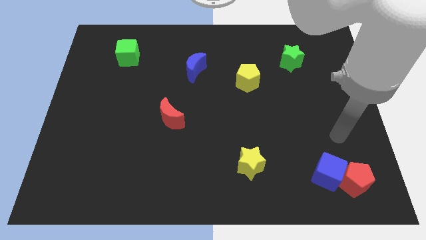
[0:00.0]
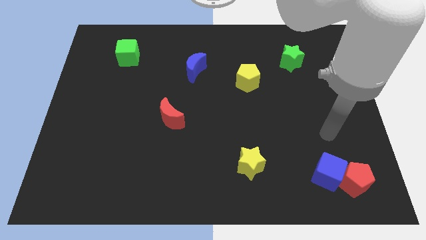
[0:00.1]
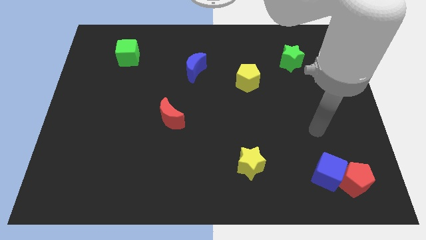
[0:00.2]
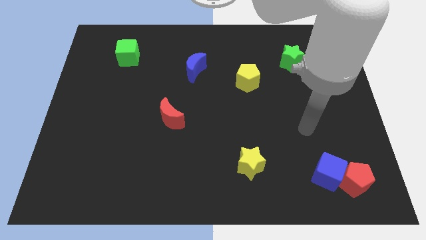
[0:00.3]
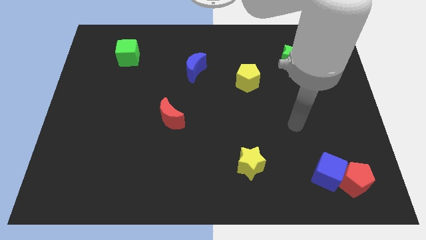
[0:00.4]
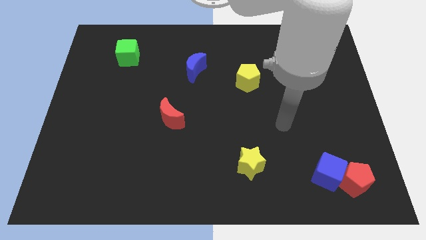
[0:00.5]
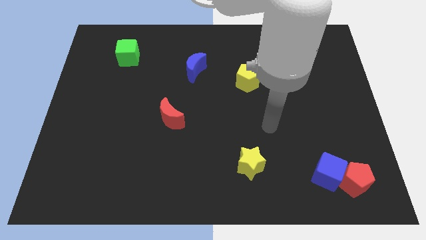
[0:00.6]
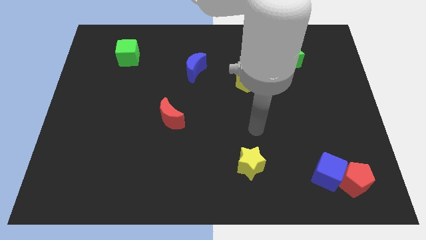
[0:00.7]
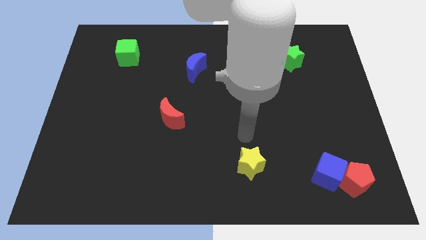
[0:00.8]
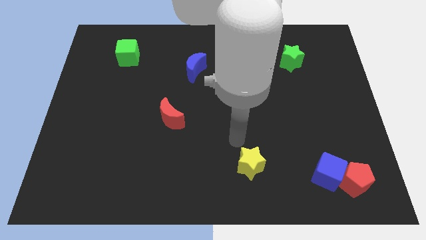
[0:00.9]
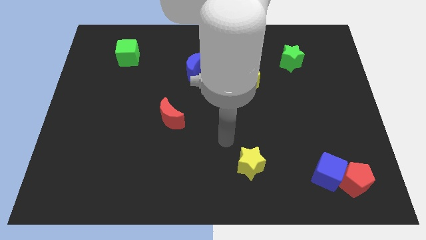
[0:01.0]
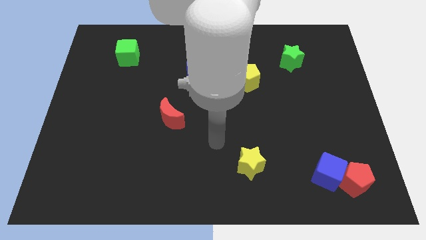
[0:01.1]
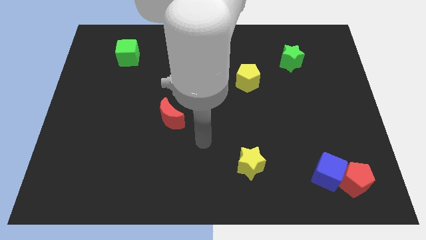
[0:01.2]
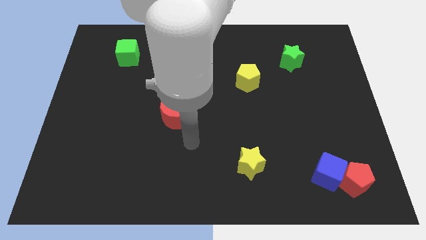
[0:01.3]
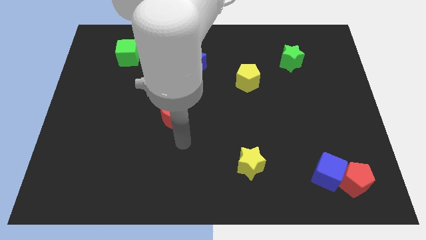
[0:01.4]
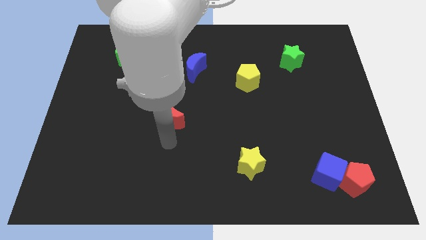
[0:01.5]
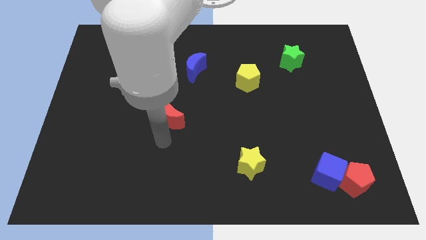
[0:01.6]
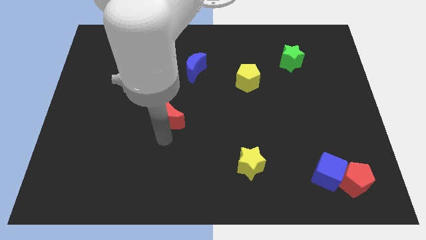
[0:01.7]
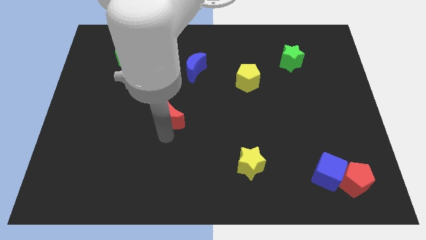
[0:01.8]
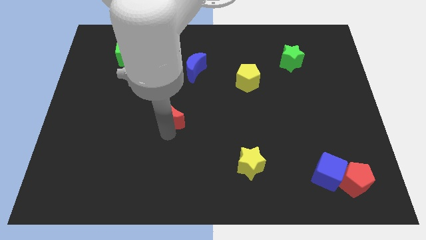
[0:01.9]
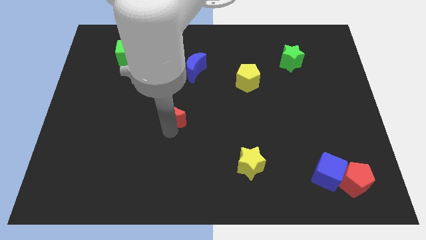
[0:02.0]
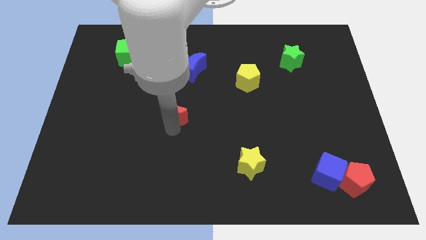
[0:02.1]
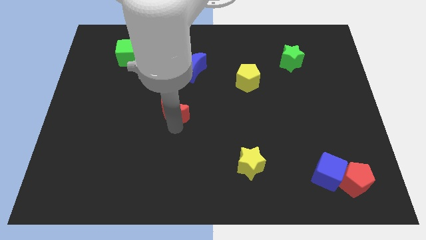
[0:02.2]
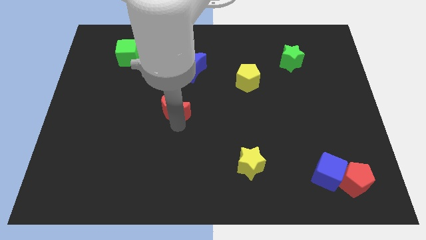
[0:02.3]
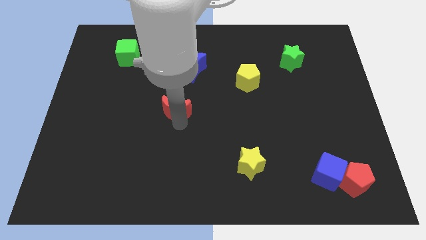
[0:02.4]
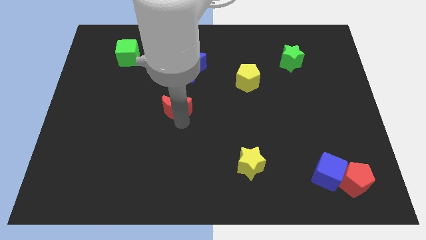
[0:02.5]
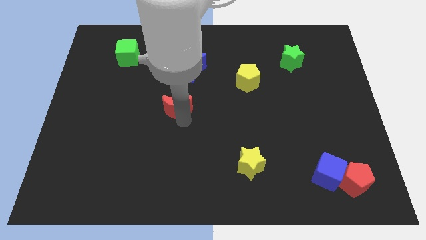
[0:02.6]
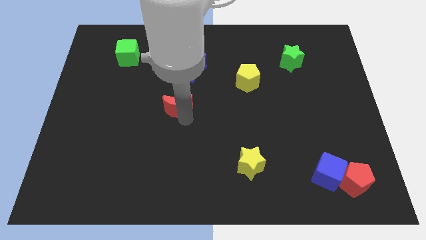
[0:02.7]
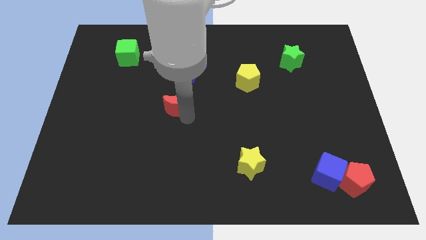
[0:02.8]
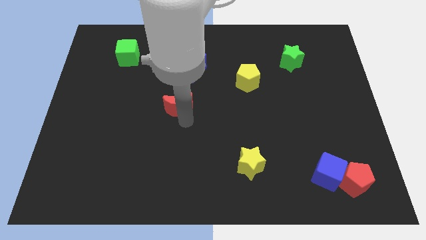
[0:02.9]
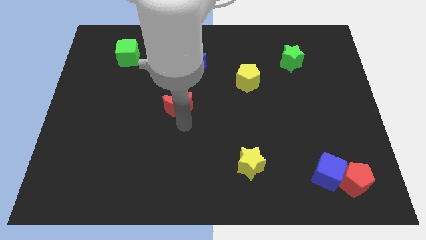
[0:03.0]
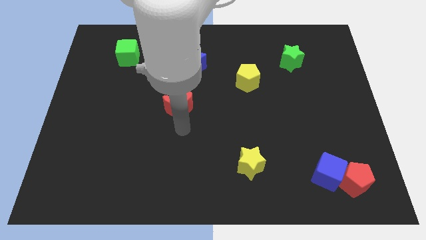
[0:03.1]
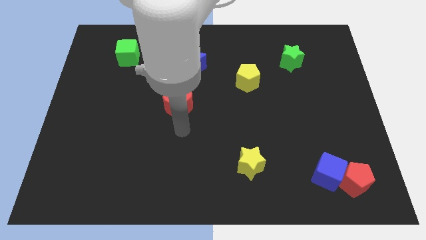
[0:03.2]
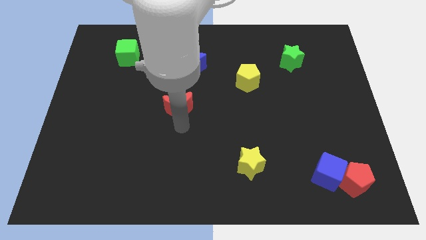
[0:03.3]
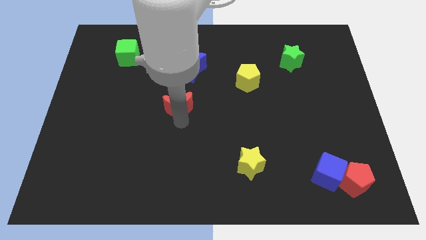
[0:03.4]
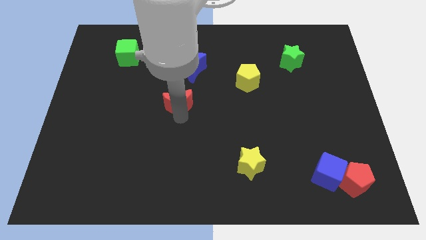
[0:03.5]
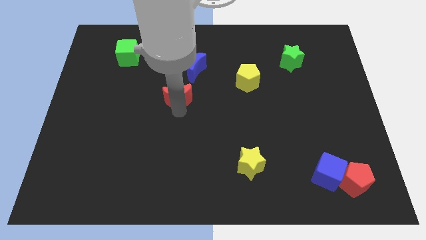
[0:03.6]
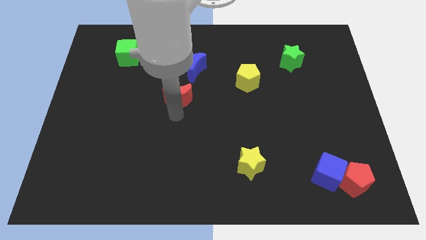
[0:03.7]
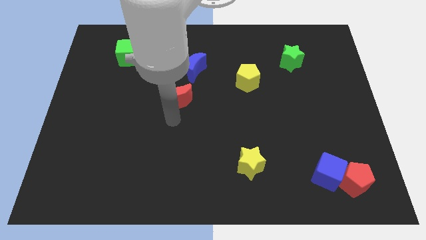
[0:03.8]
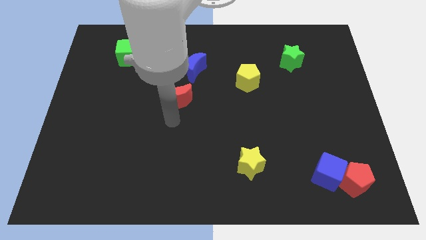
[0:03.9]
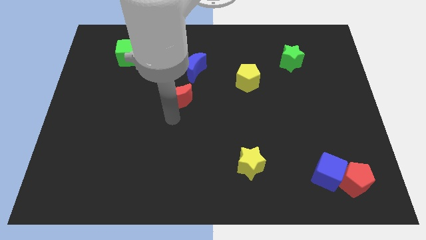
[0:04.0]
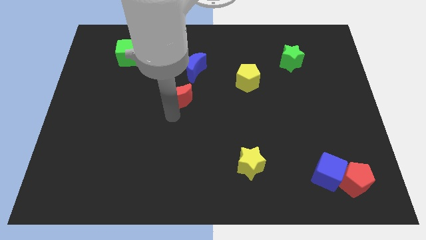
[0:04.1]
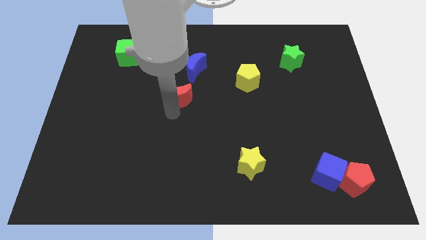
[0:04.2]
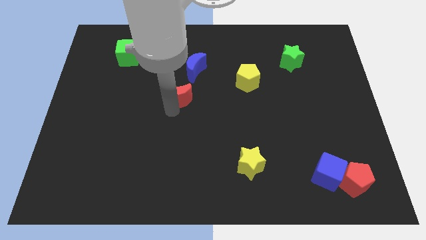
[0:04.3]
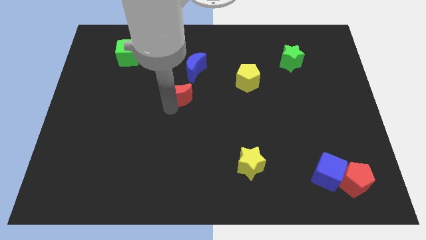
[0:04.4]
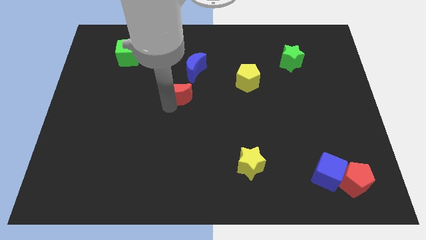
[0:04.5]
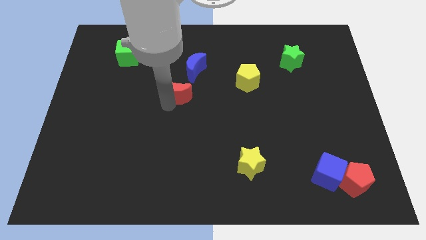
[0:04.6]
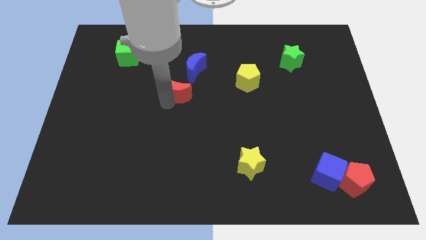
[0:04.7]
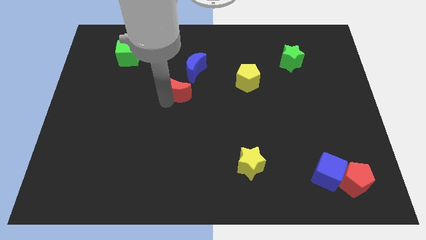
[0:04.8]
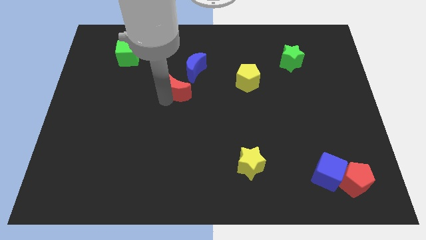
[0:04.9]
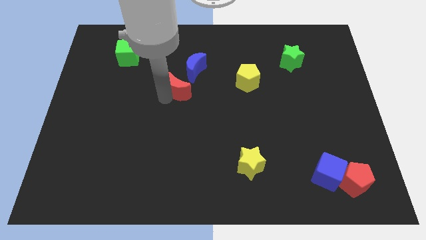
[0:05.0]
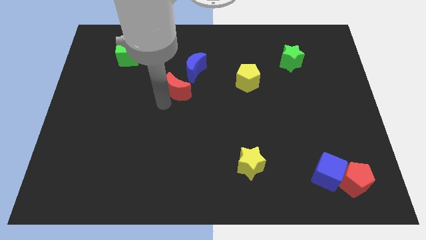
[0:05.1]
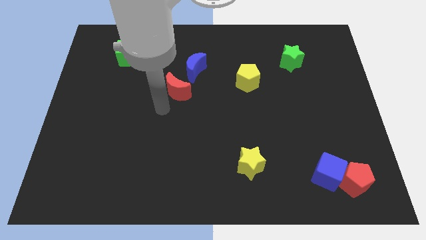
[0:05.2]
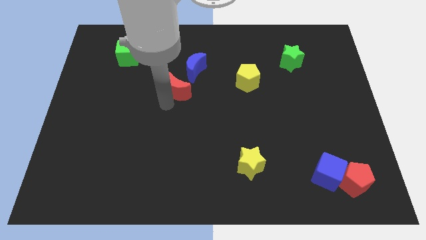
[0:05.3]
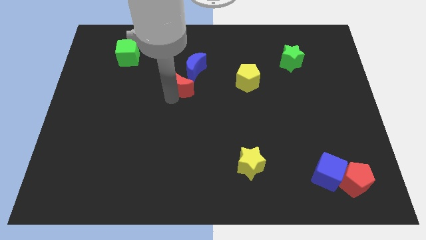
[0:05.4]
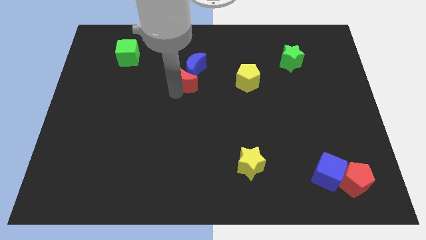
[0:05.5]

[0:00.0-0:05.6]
put the red moon to the blue moon

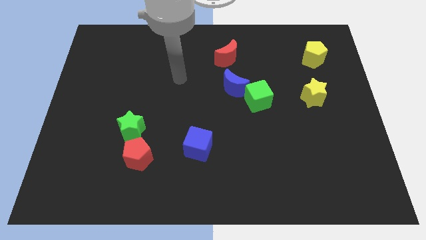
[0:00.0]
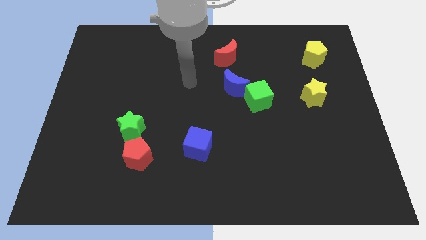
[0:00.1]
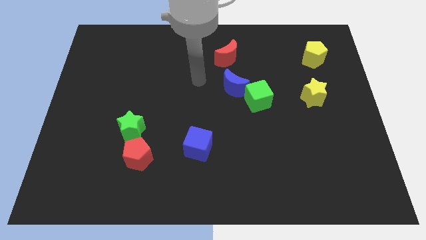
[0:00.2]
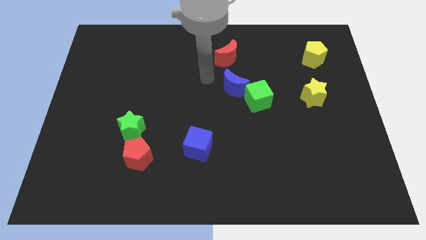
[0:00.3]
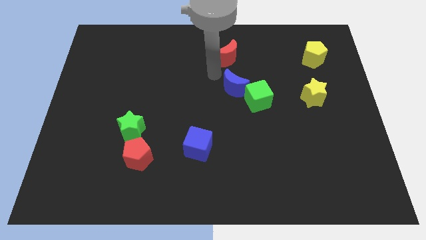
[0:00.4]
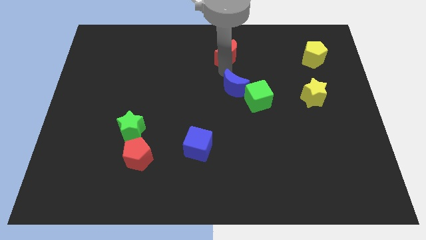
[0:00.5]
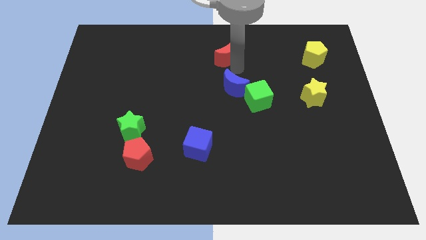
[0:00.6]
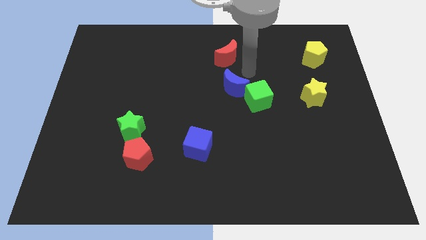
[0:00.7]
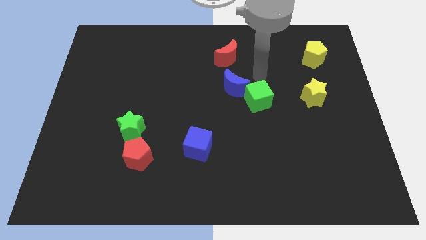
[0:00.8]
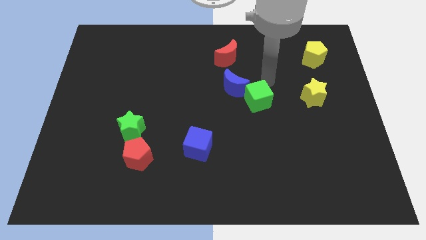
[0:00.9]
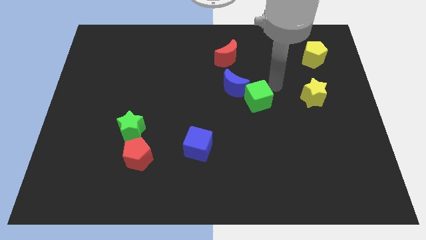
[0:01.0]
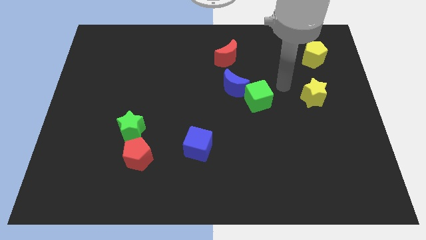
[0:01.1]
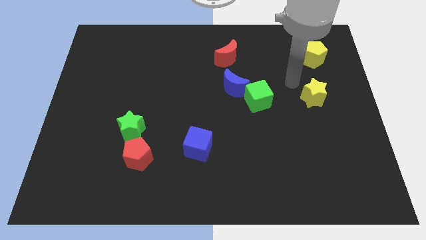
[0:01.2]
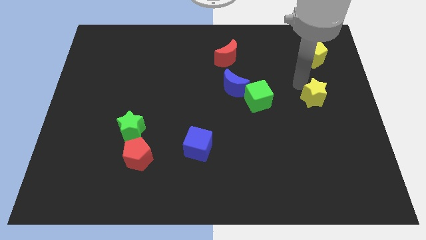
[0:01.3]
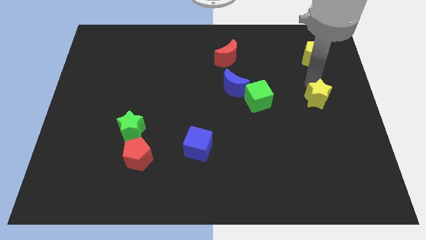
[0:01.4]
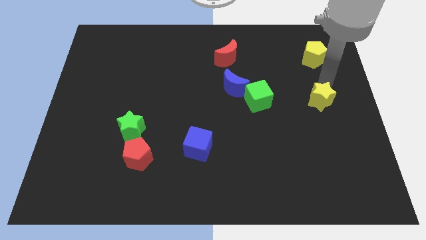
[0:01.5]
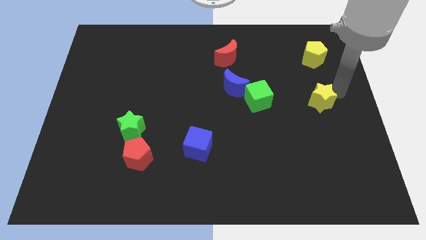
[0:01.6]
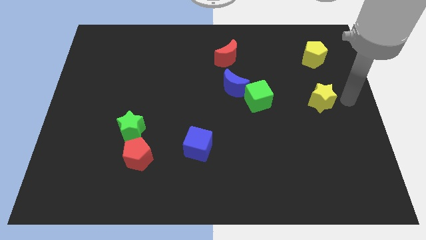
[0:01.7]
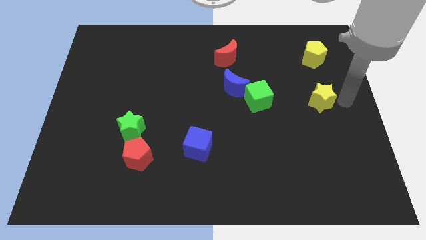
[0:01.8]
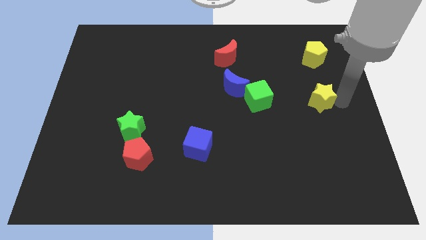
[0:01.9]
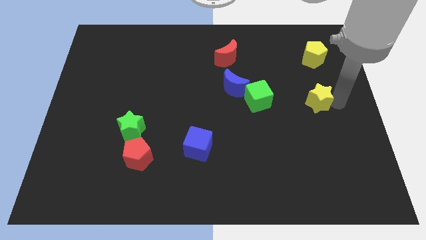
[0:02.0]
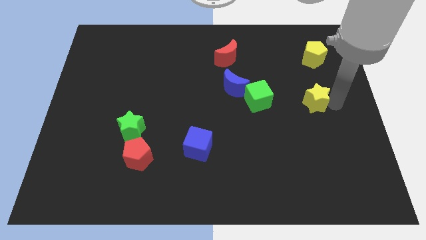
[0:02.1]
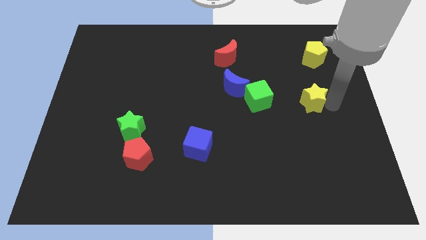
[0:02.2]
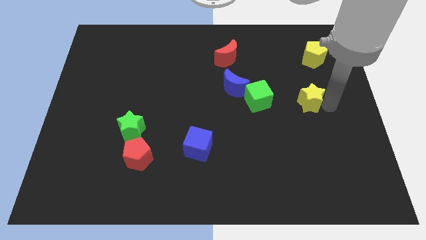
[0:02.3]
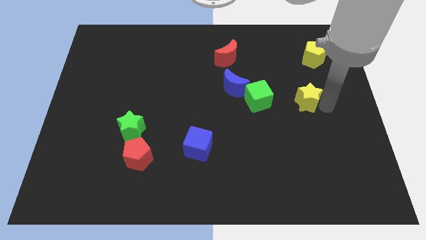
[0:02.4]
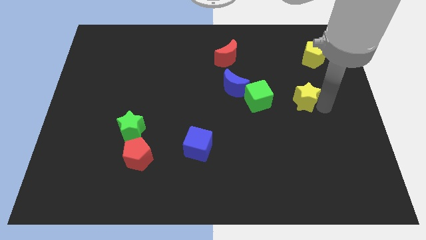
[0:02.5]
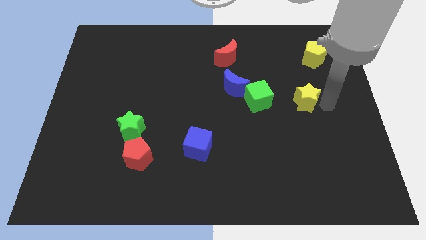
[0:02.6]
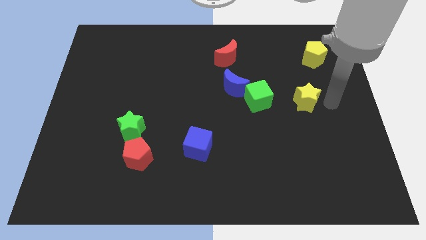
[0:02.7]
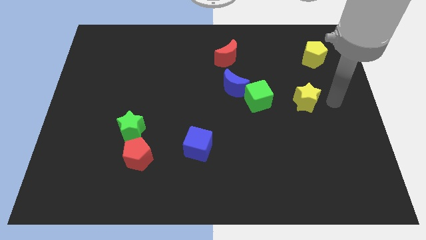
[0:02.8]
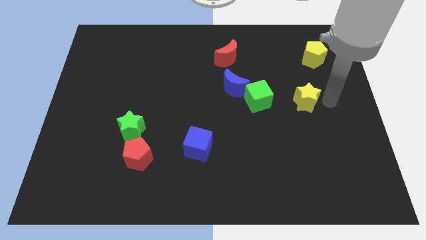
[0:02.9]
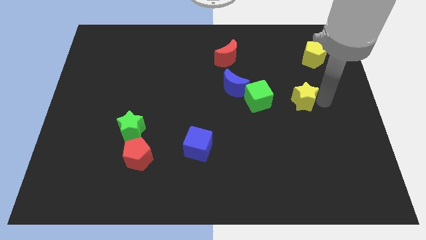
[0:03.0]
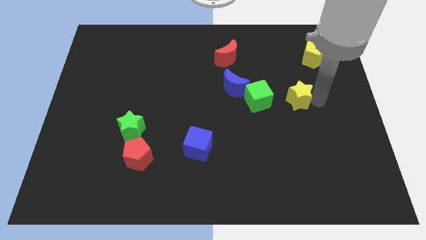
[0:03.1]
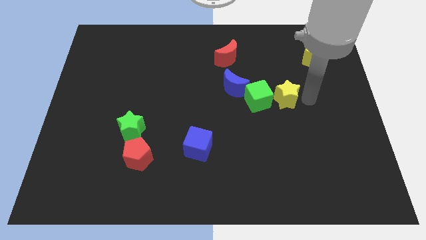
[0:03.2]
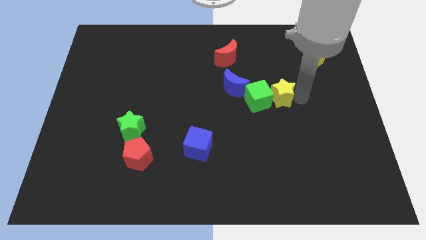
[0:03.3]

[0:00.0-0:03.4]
push the yellow star towards the green cube
